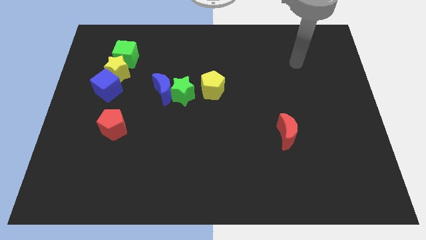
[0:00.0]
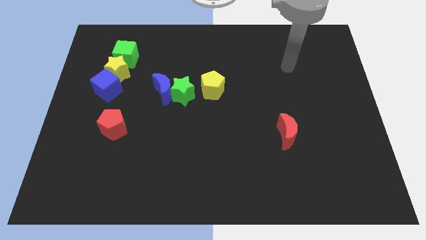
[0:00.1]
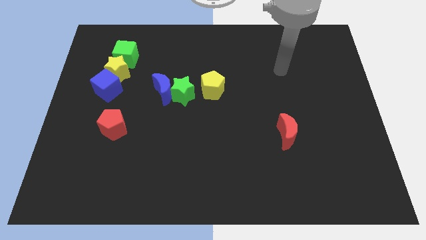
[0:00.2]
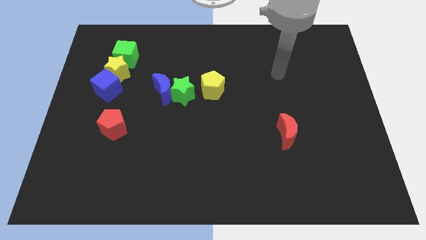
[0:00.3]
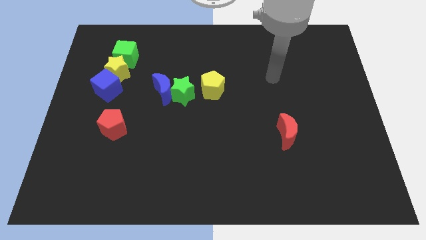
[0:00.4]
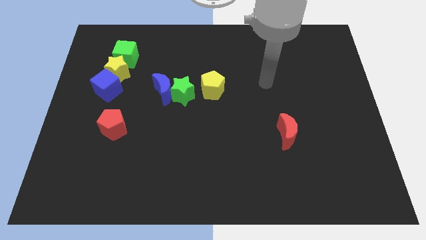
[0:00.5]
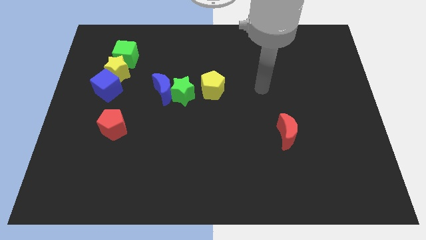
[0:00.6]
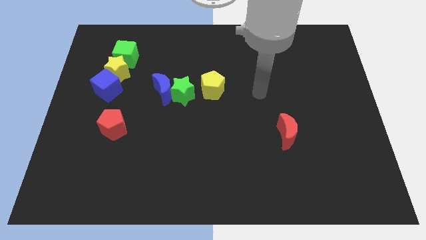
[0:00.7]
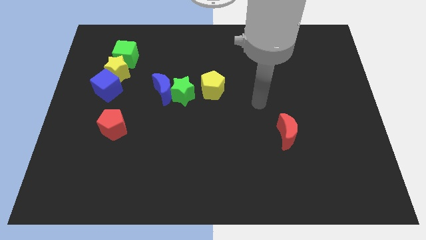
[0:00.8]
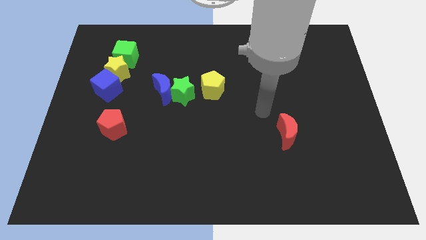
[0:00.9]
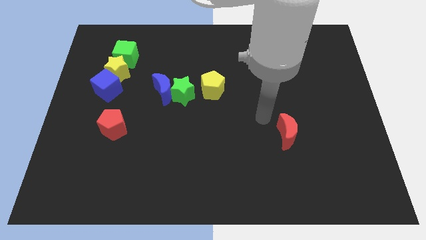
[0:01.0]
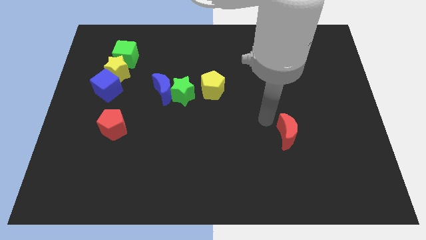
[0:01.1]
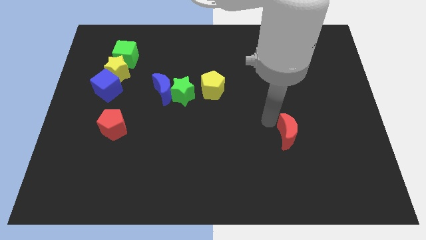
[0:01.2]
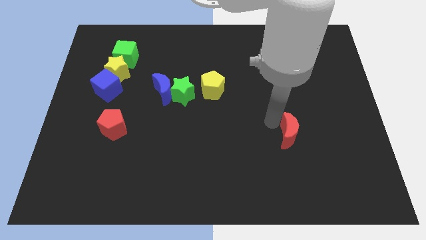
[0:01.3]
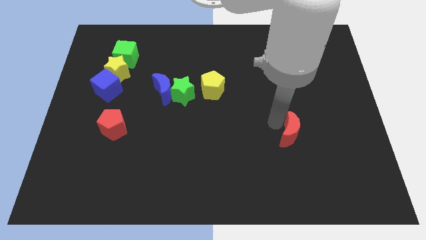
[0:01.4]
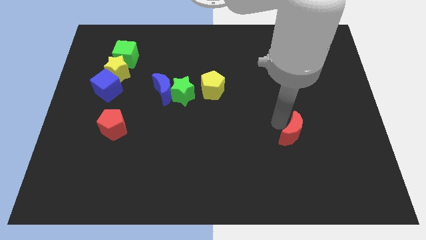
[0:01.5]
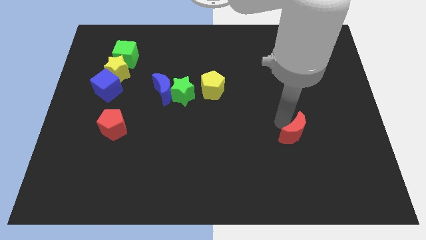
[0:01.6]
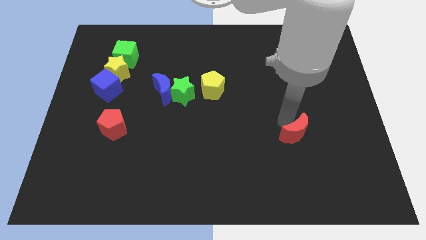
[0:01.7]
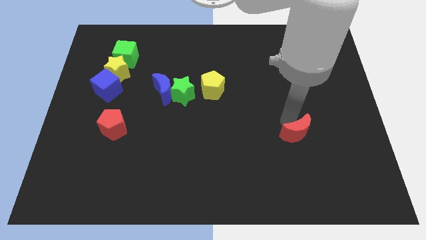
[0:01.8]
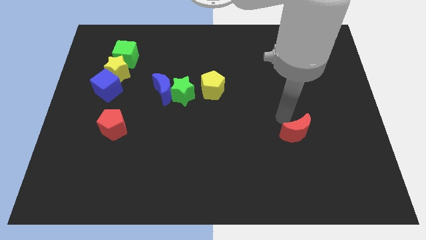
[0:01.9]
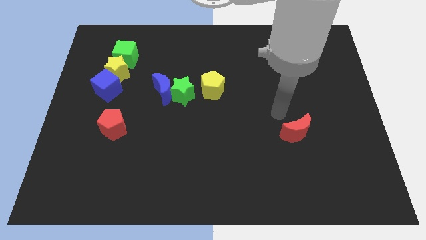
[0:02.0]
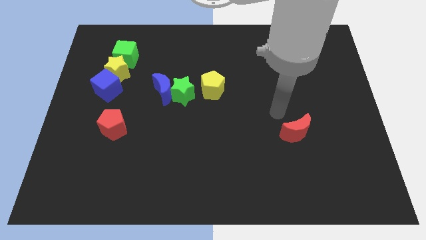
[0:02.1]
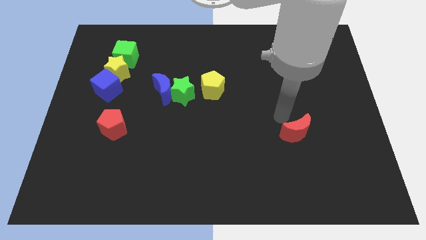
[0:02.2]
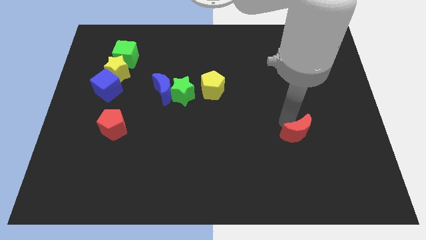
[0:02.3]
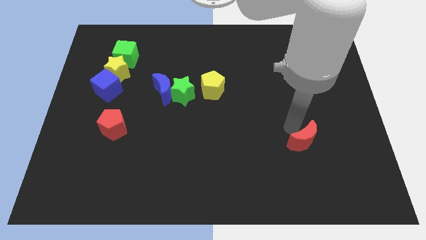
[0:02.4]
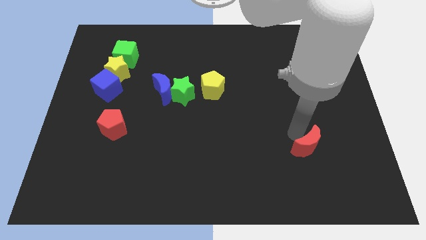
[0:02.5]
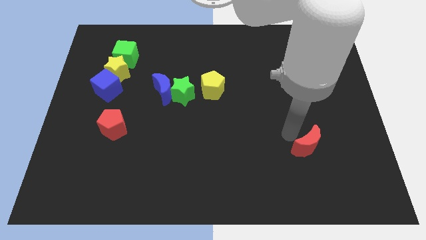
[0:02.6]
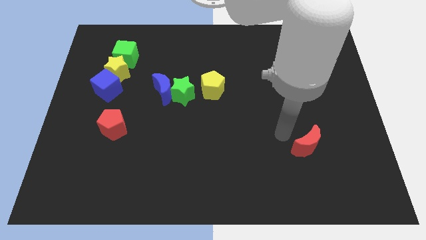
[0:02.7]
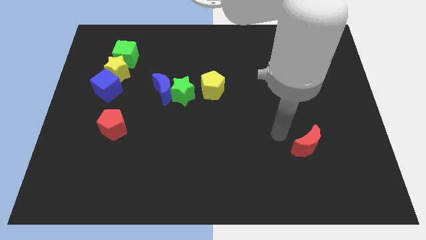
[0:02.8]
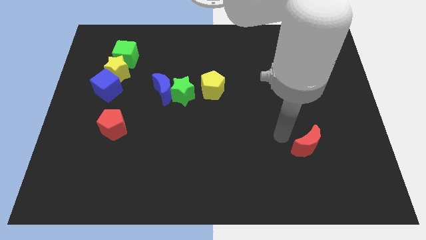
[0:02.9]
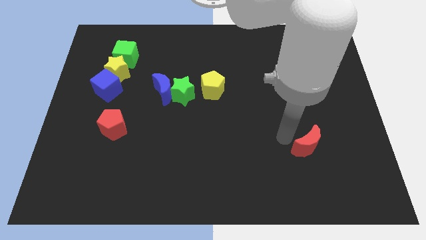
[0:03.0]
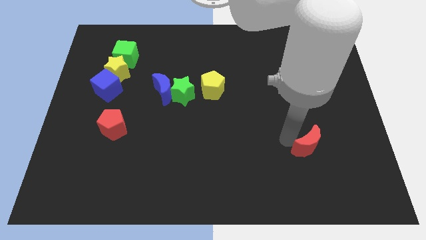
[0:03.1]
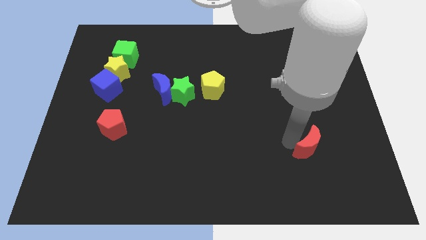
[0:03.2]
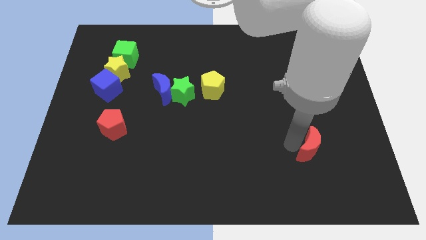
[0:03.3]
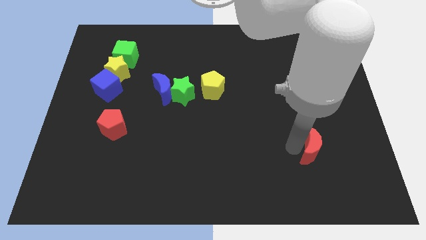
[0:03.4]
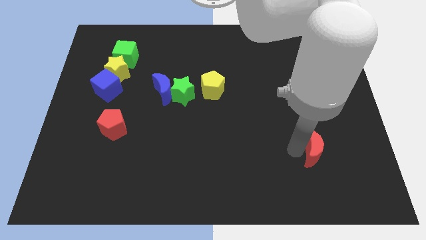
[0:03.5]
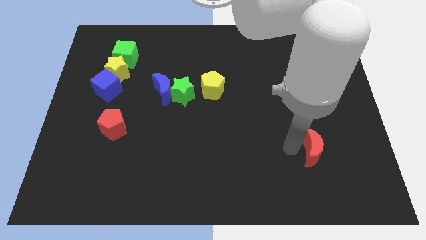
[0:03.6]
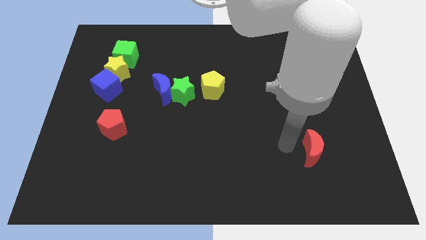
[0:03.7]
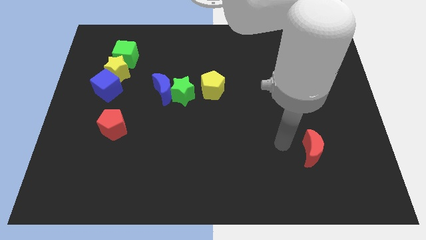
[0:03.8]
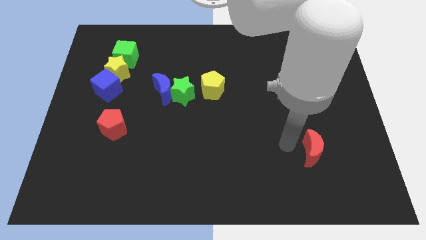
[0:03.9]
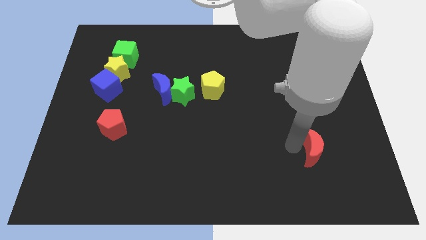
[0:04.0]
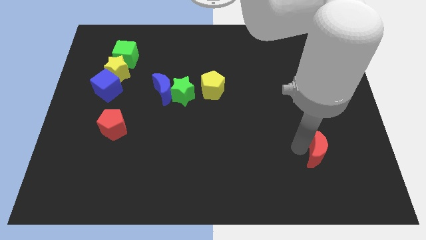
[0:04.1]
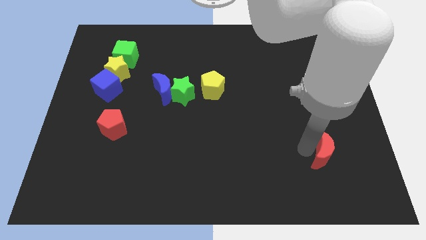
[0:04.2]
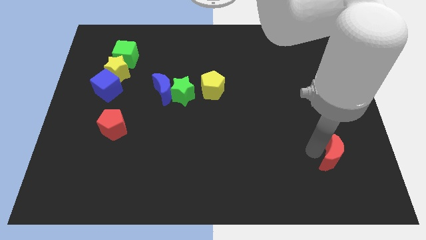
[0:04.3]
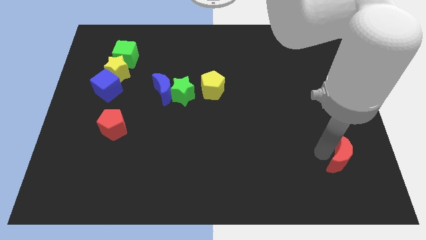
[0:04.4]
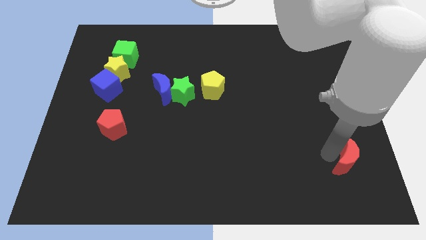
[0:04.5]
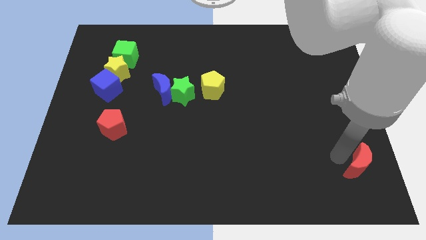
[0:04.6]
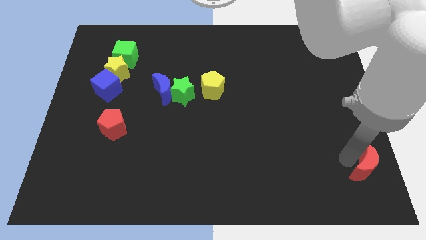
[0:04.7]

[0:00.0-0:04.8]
push the red moon to the bottom right

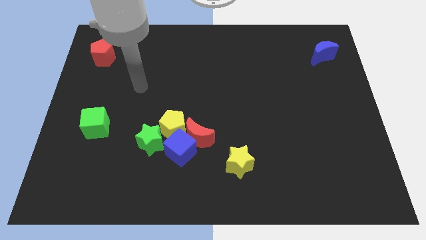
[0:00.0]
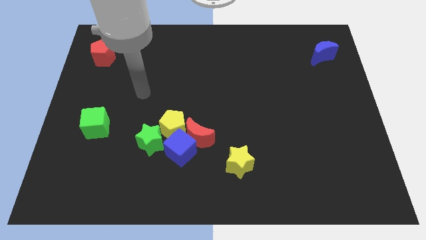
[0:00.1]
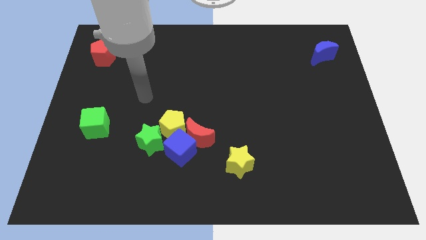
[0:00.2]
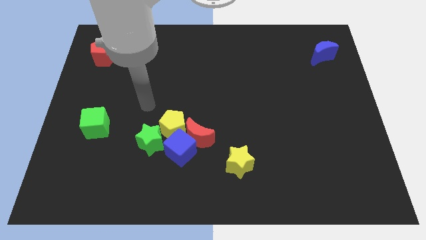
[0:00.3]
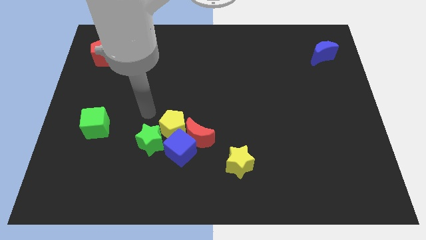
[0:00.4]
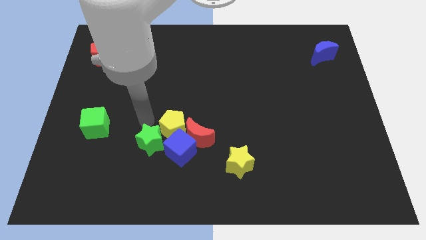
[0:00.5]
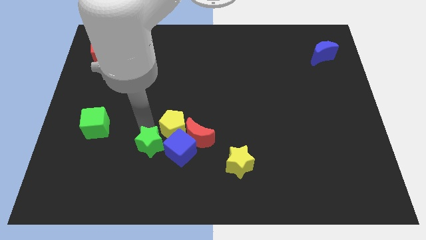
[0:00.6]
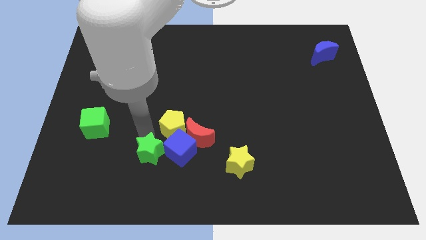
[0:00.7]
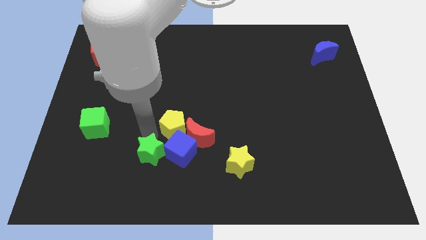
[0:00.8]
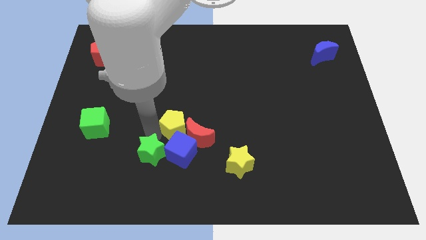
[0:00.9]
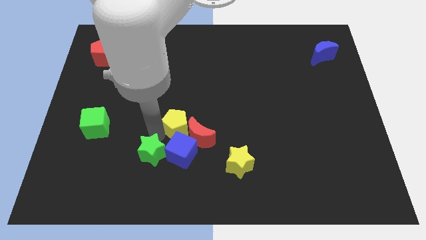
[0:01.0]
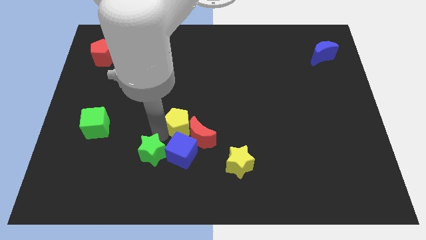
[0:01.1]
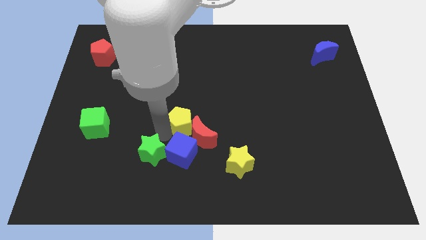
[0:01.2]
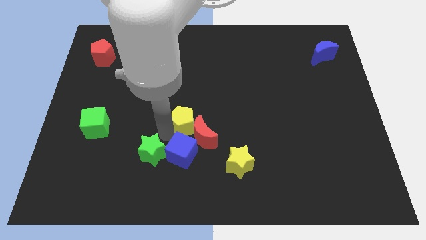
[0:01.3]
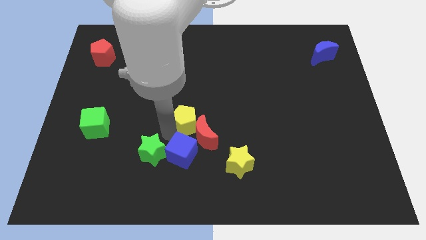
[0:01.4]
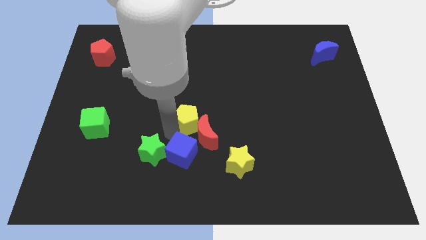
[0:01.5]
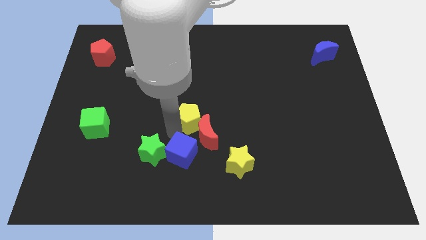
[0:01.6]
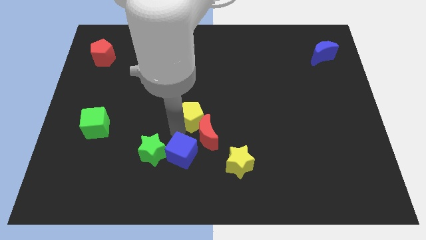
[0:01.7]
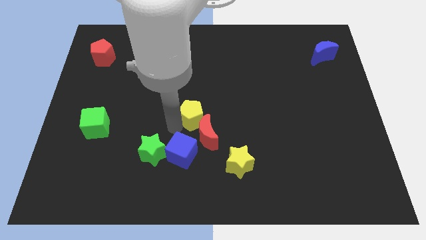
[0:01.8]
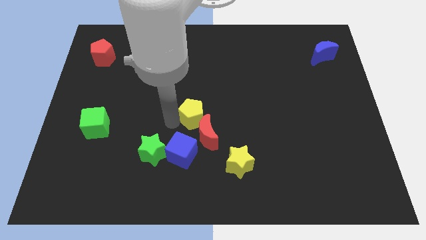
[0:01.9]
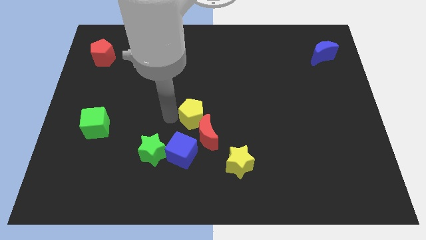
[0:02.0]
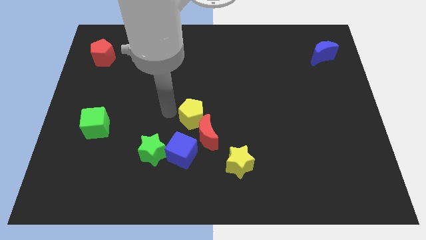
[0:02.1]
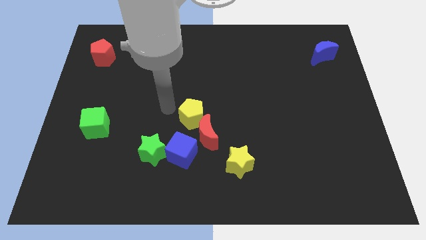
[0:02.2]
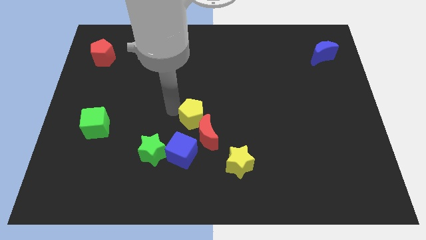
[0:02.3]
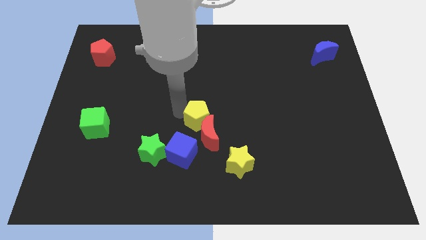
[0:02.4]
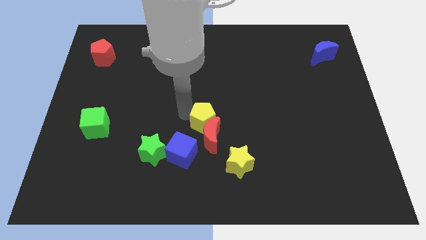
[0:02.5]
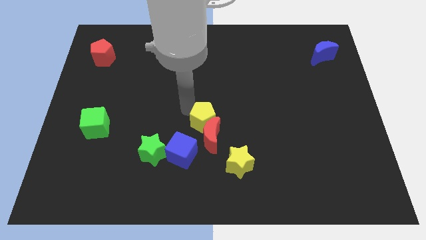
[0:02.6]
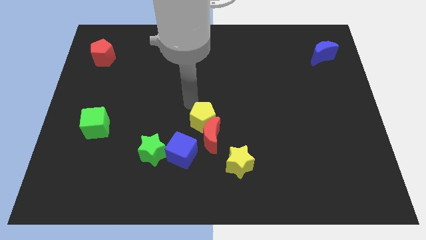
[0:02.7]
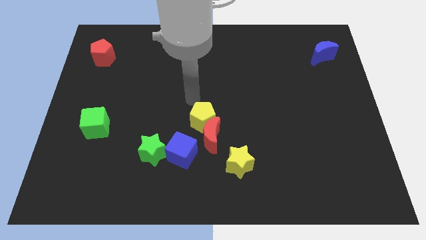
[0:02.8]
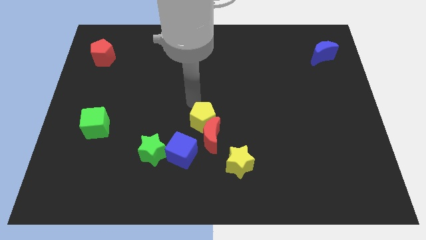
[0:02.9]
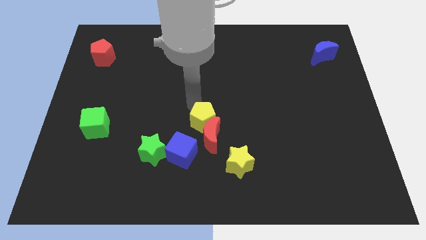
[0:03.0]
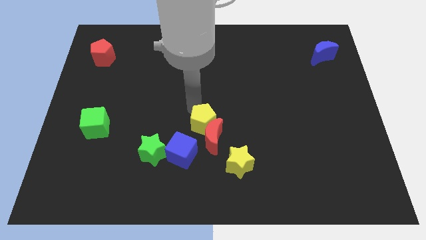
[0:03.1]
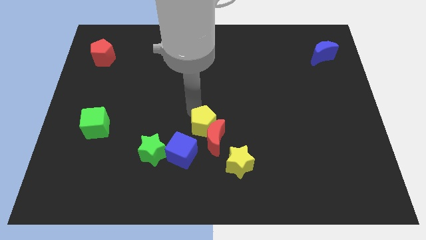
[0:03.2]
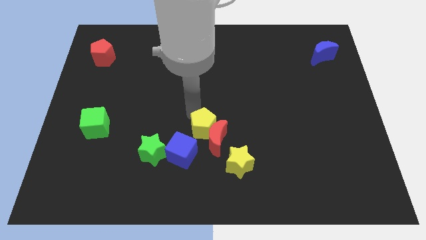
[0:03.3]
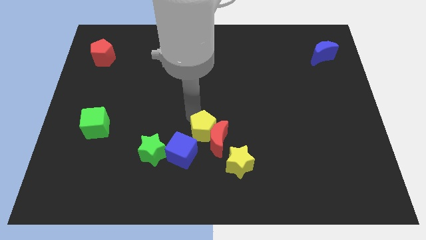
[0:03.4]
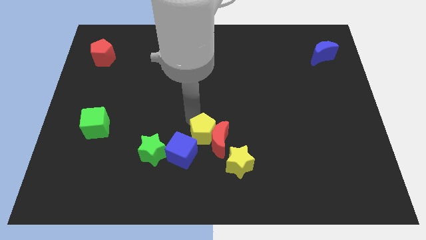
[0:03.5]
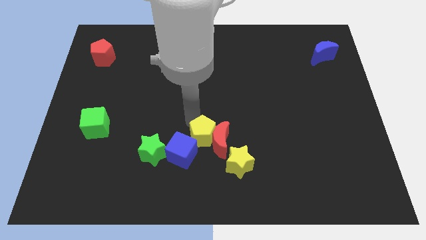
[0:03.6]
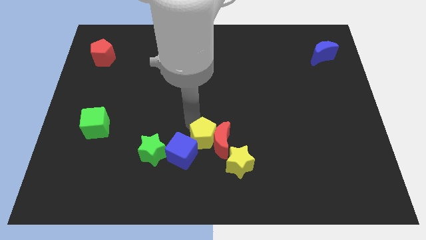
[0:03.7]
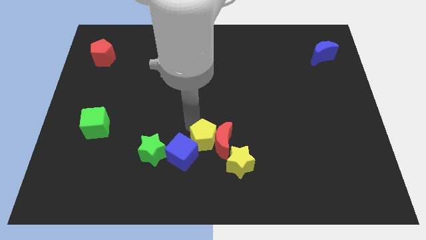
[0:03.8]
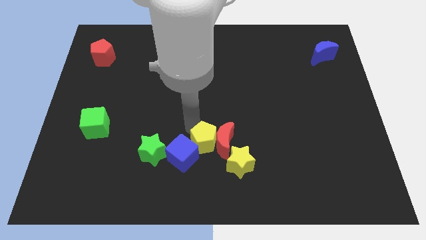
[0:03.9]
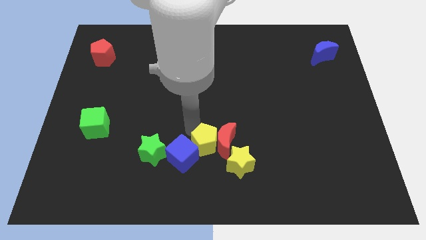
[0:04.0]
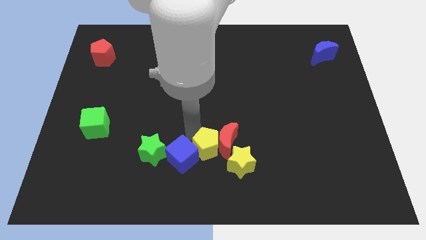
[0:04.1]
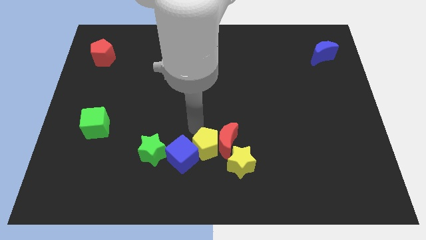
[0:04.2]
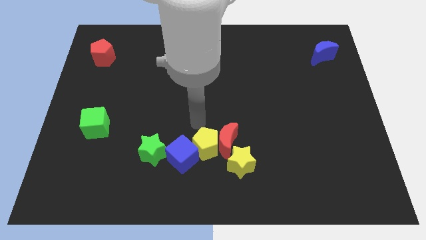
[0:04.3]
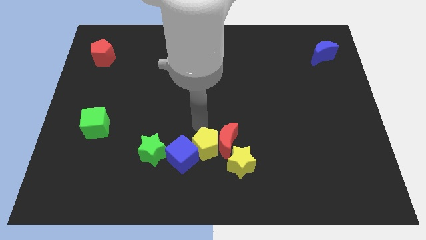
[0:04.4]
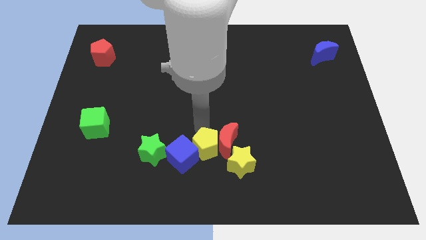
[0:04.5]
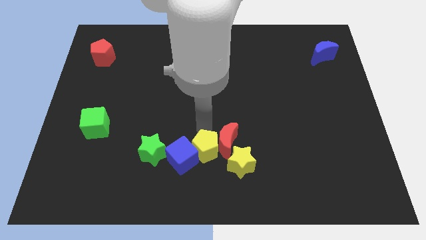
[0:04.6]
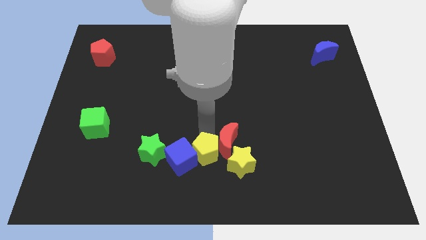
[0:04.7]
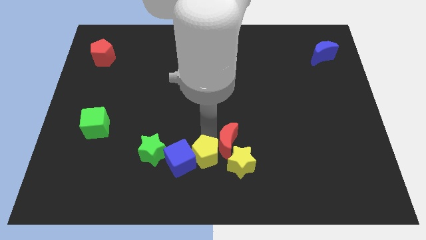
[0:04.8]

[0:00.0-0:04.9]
put the yellow pentagon to the bottom side
